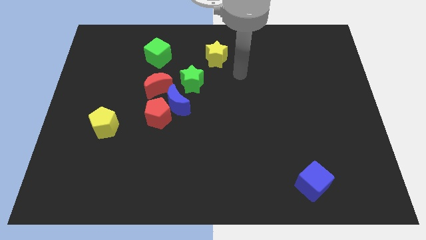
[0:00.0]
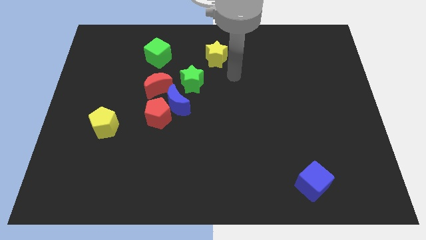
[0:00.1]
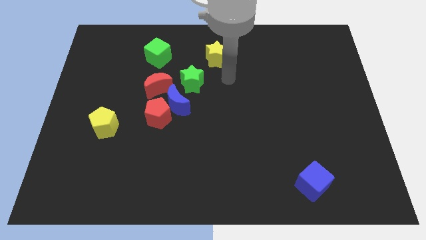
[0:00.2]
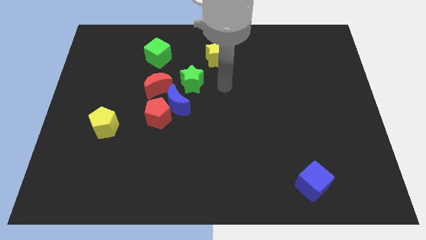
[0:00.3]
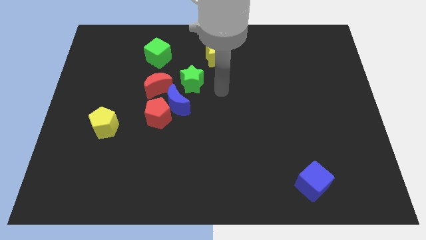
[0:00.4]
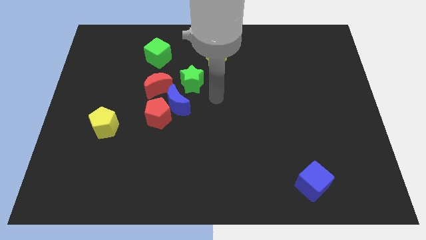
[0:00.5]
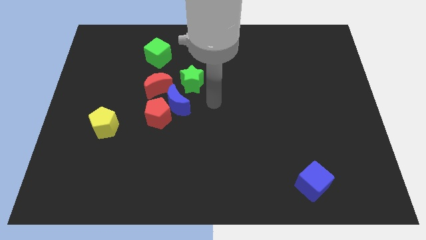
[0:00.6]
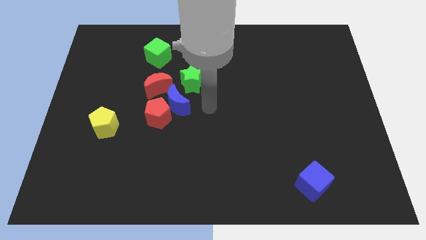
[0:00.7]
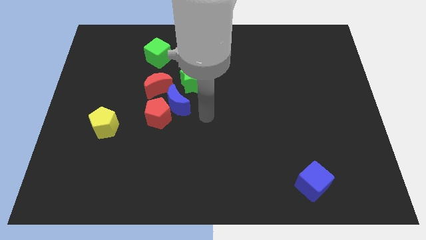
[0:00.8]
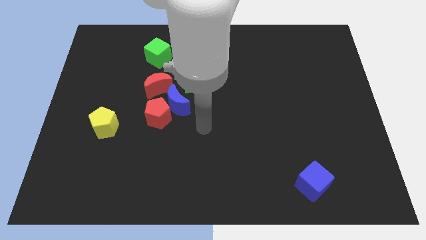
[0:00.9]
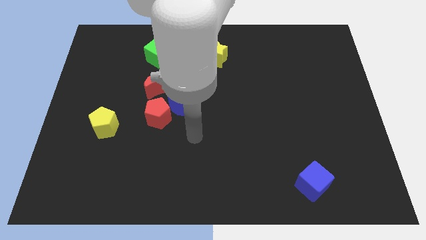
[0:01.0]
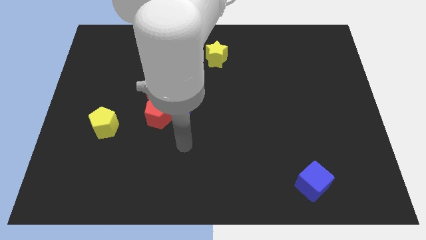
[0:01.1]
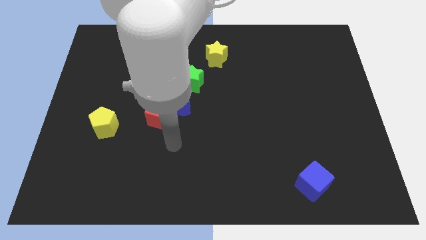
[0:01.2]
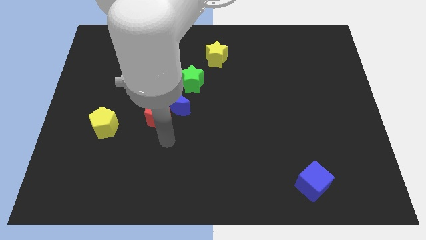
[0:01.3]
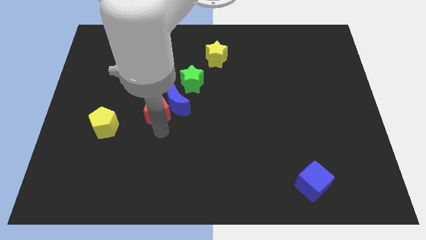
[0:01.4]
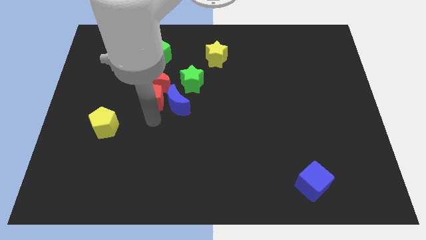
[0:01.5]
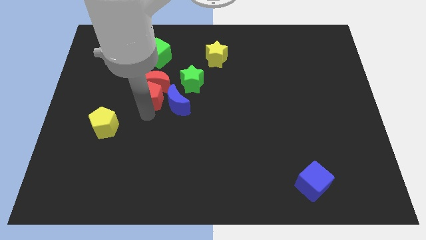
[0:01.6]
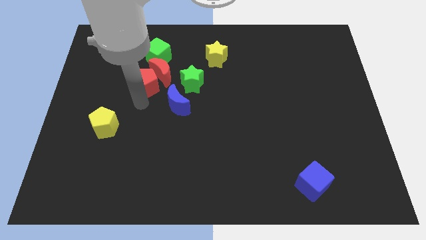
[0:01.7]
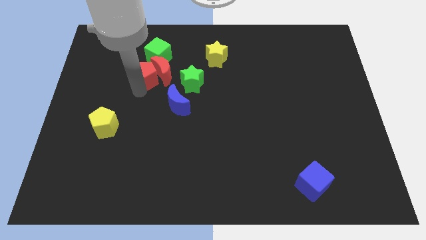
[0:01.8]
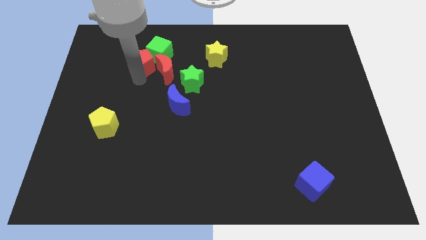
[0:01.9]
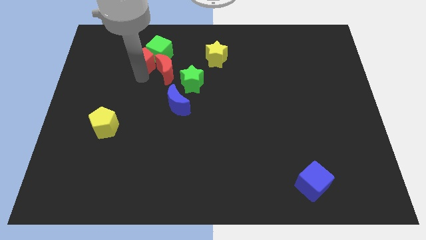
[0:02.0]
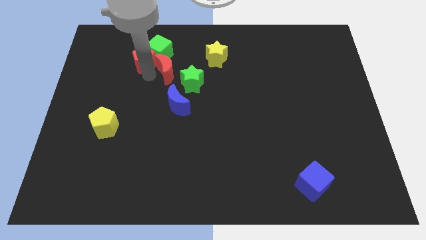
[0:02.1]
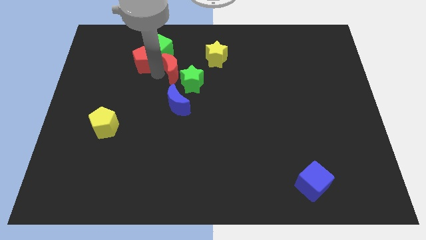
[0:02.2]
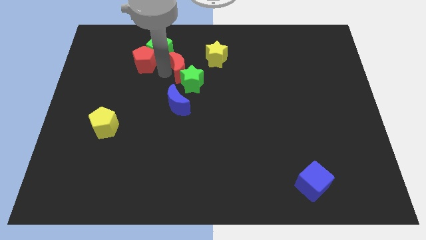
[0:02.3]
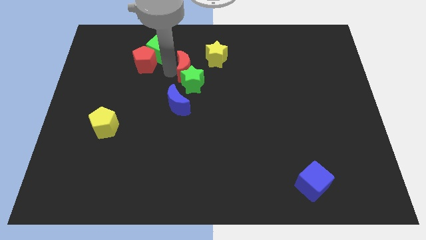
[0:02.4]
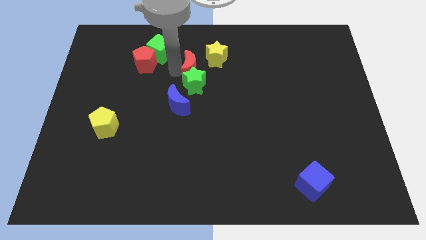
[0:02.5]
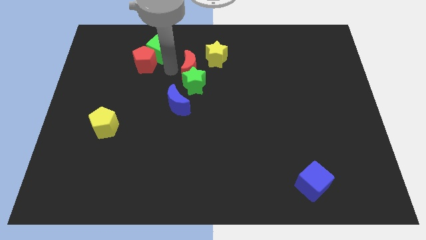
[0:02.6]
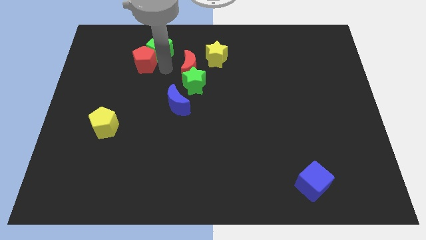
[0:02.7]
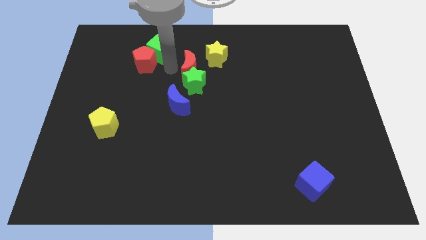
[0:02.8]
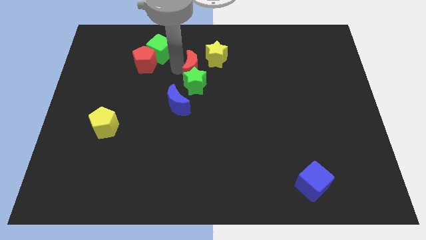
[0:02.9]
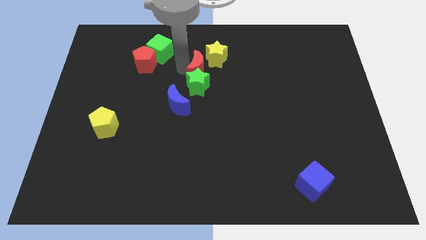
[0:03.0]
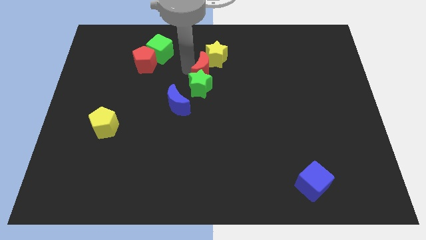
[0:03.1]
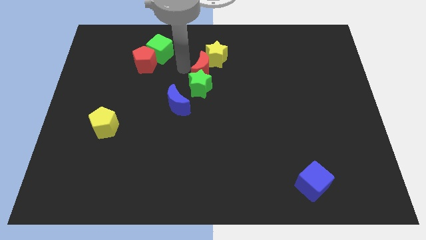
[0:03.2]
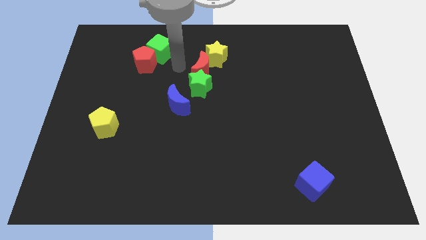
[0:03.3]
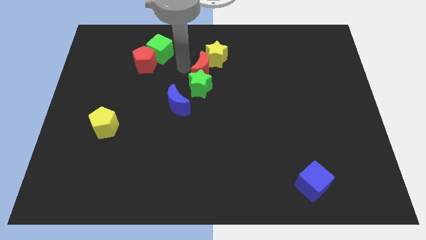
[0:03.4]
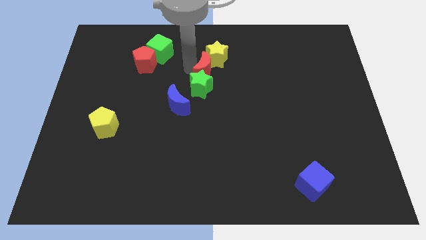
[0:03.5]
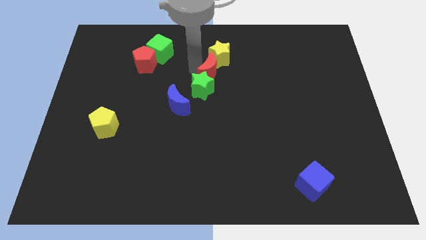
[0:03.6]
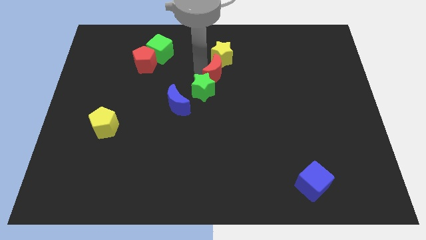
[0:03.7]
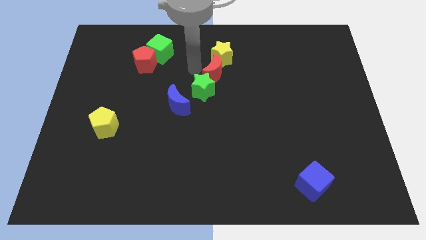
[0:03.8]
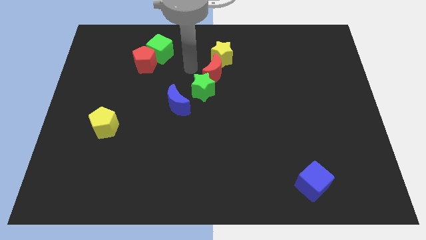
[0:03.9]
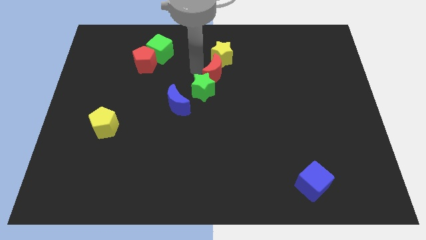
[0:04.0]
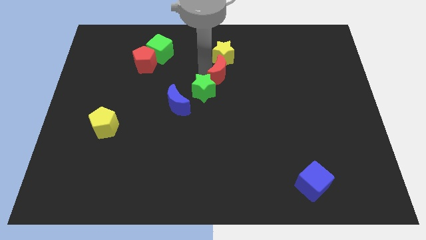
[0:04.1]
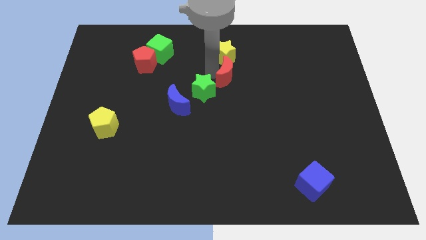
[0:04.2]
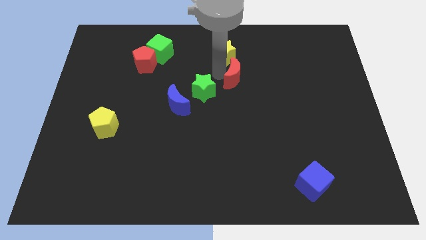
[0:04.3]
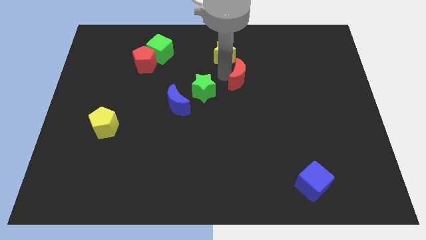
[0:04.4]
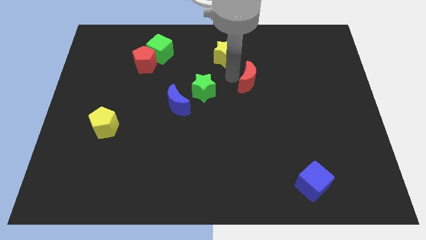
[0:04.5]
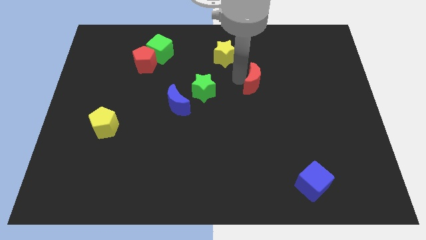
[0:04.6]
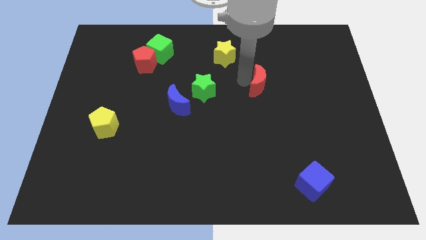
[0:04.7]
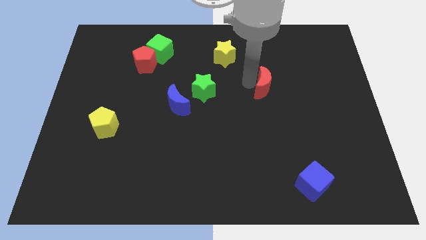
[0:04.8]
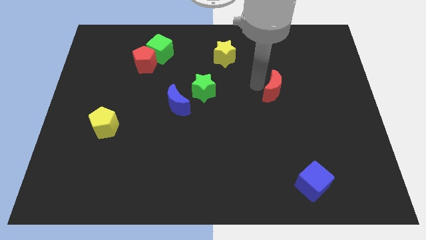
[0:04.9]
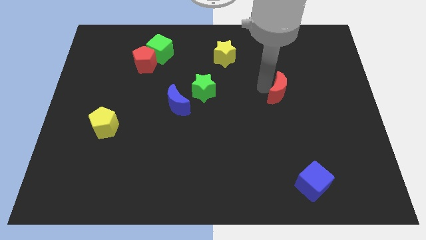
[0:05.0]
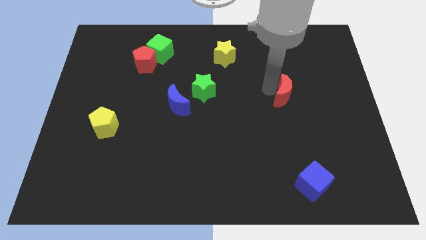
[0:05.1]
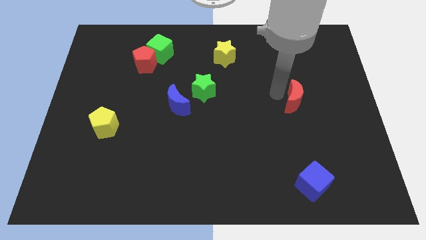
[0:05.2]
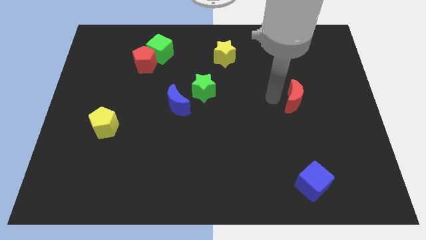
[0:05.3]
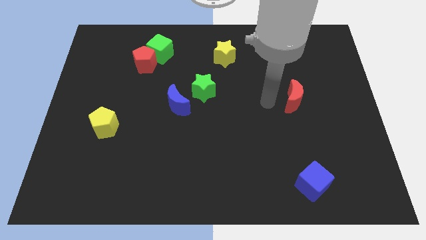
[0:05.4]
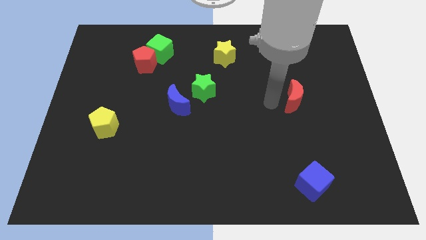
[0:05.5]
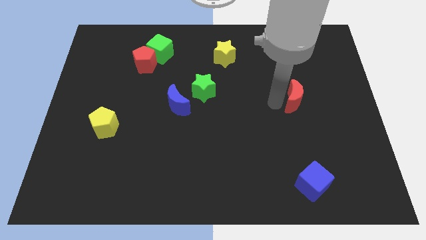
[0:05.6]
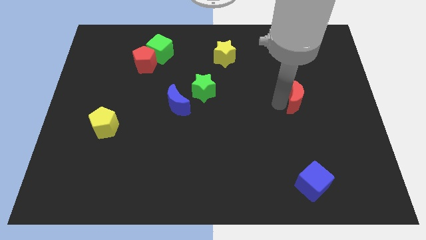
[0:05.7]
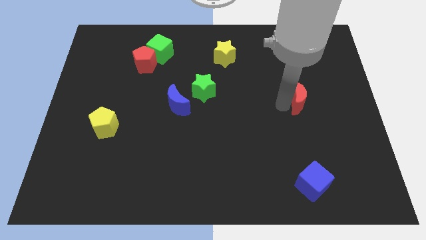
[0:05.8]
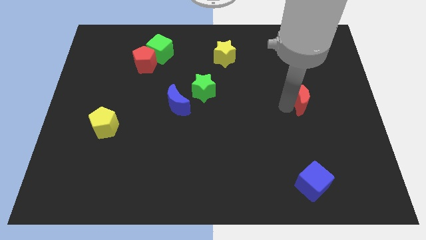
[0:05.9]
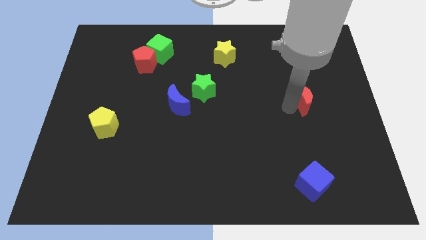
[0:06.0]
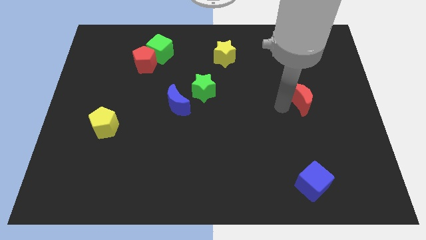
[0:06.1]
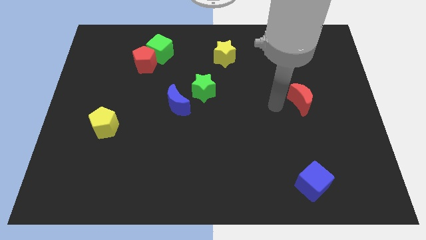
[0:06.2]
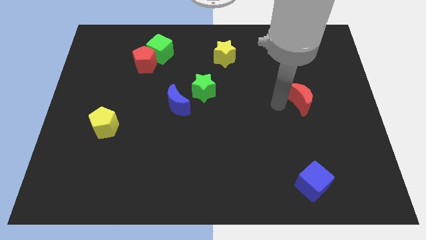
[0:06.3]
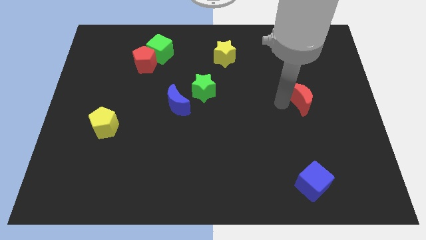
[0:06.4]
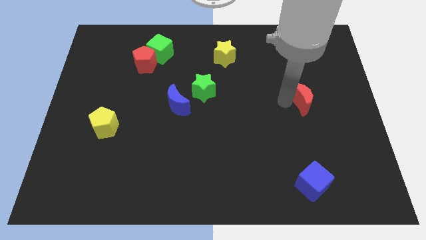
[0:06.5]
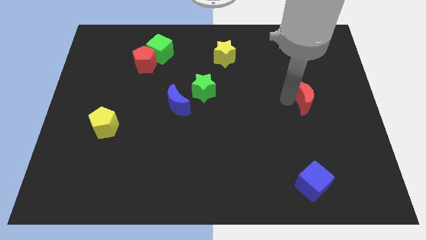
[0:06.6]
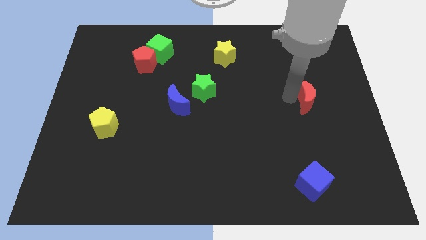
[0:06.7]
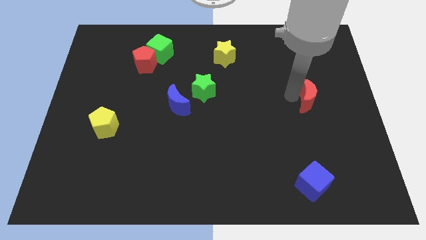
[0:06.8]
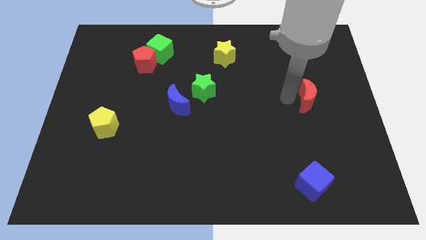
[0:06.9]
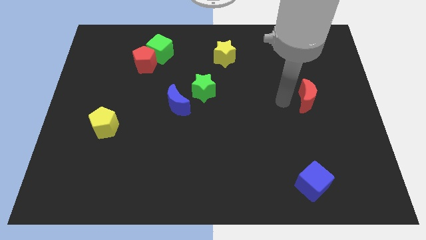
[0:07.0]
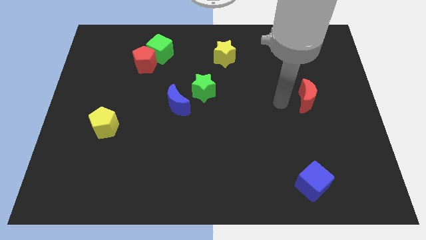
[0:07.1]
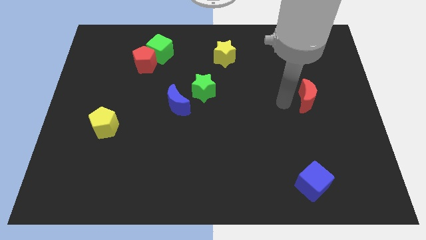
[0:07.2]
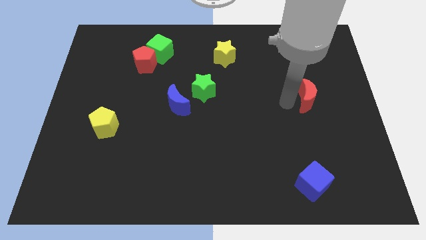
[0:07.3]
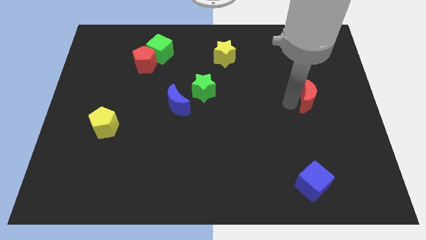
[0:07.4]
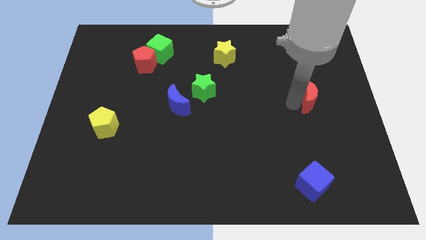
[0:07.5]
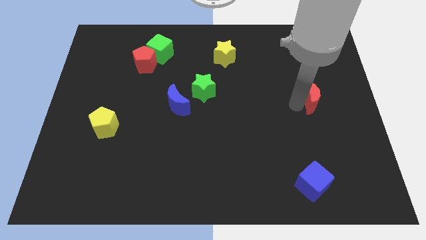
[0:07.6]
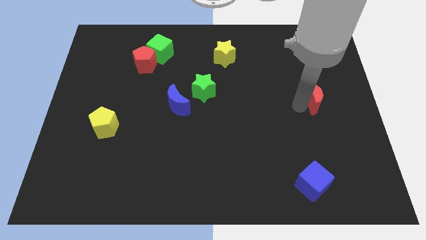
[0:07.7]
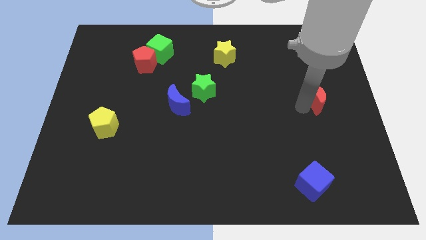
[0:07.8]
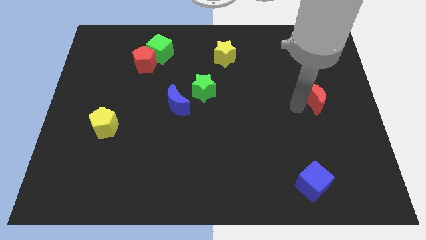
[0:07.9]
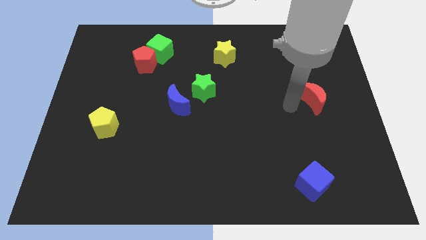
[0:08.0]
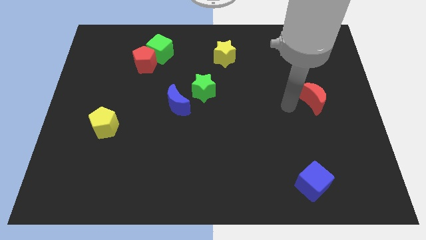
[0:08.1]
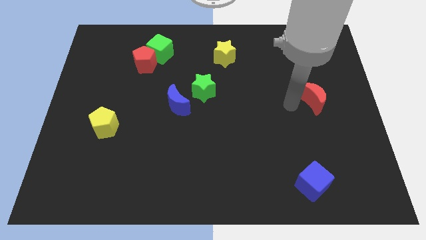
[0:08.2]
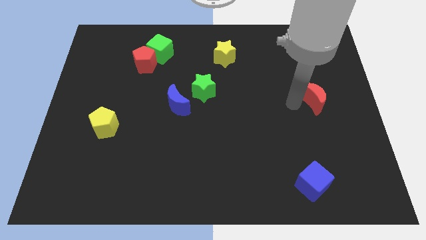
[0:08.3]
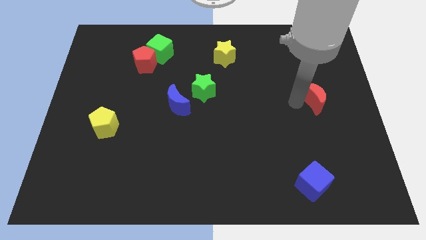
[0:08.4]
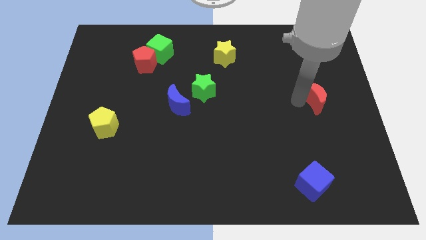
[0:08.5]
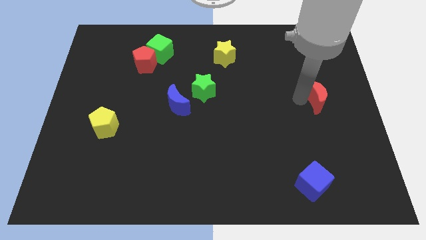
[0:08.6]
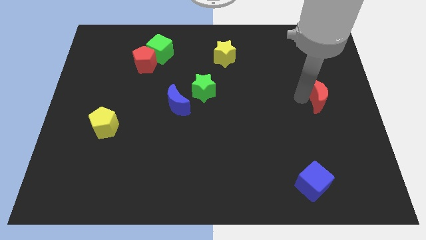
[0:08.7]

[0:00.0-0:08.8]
put the red moon to the right side of the board
